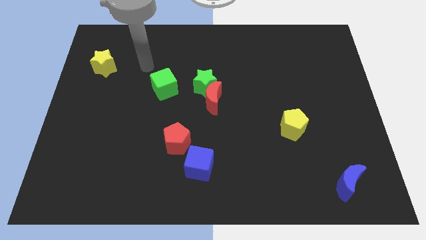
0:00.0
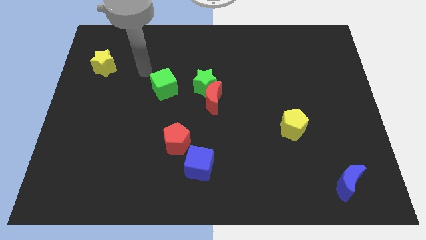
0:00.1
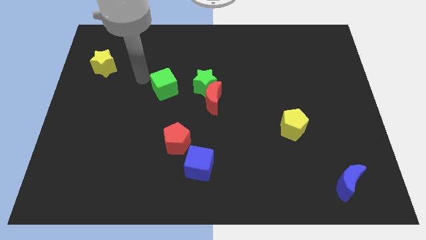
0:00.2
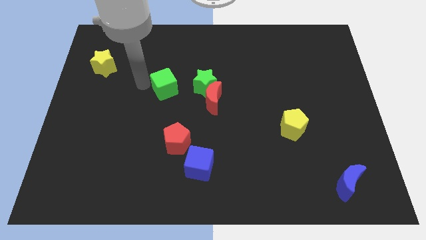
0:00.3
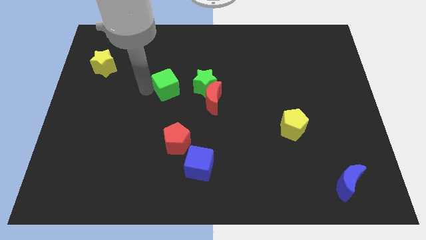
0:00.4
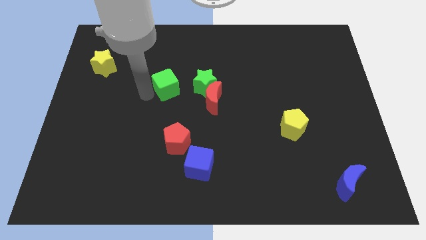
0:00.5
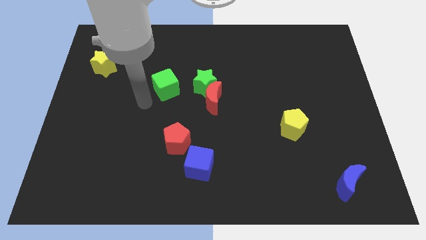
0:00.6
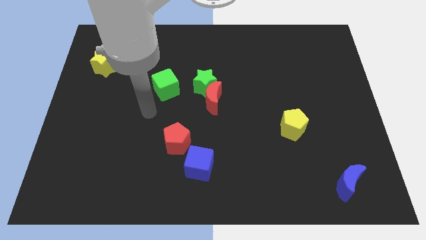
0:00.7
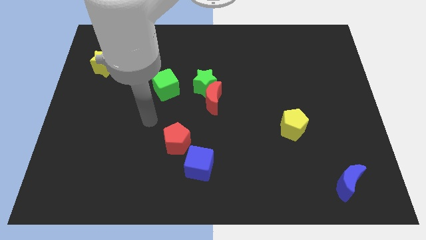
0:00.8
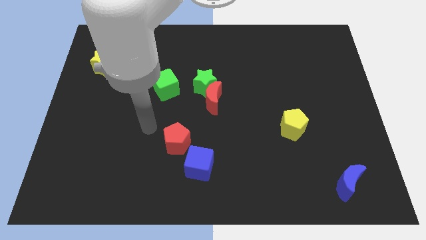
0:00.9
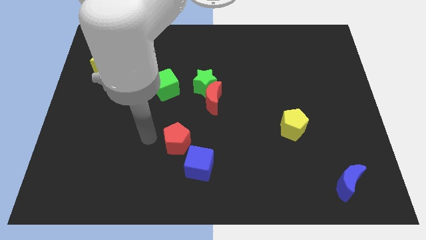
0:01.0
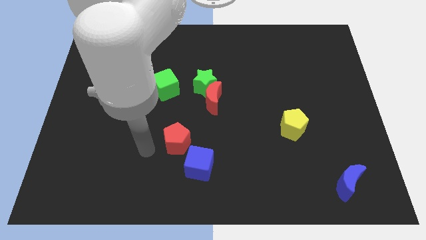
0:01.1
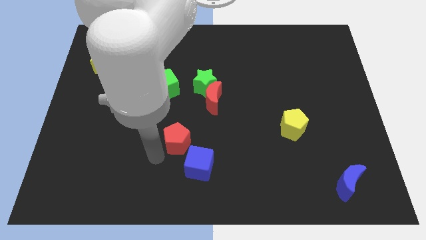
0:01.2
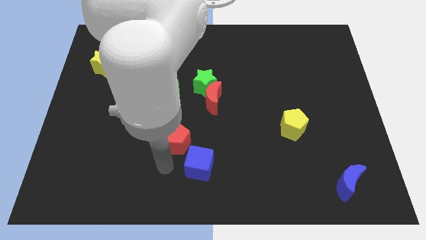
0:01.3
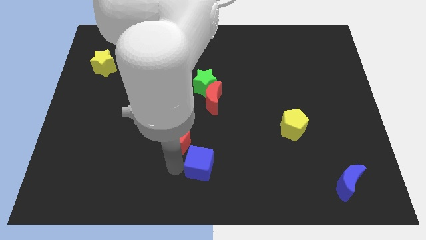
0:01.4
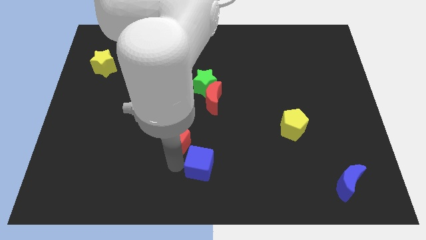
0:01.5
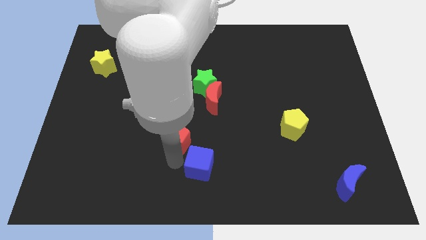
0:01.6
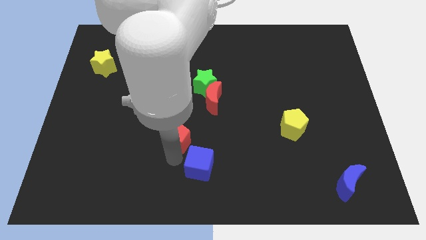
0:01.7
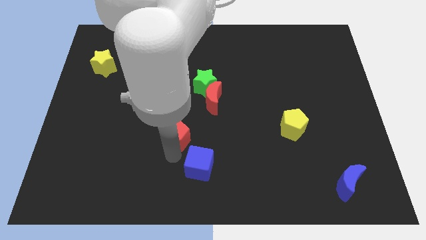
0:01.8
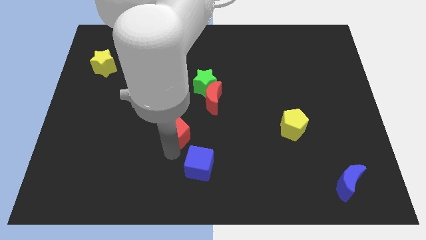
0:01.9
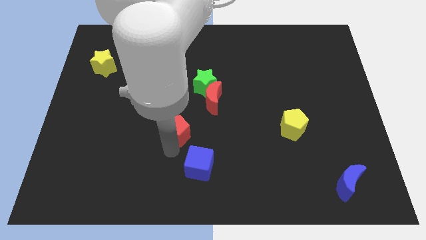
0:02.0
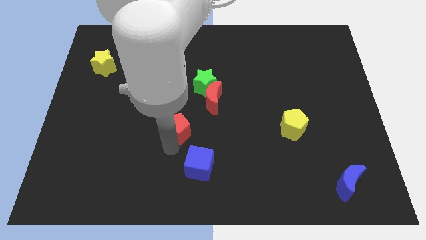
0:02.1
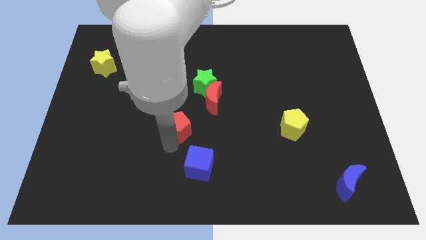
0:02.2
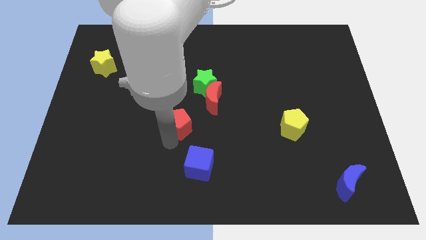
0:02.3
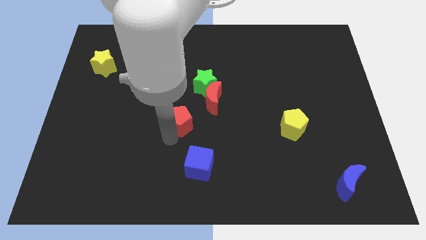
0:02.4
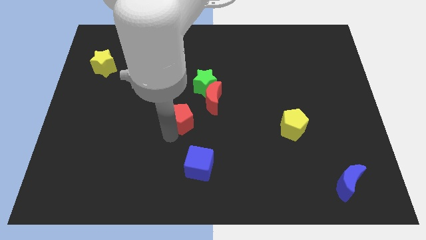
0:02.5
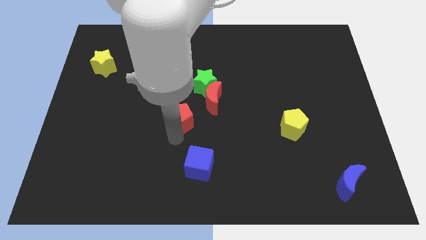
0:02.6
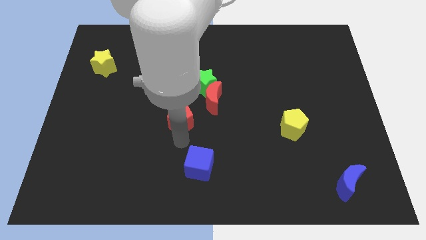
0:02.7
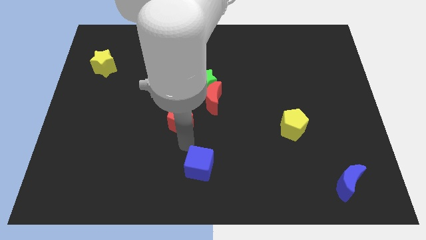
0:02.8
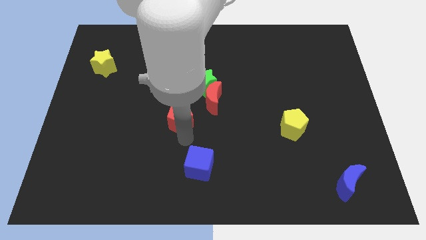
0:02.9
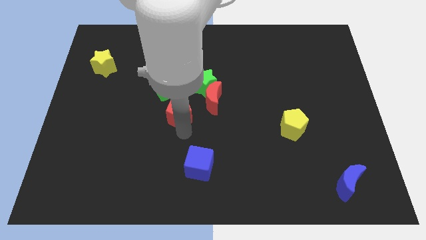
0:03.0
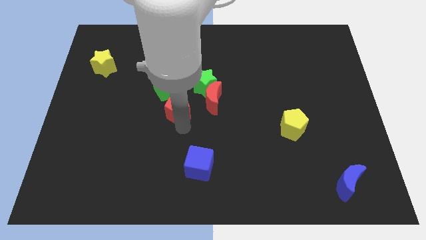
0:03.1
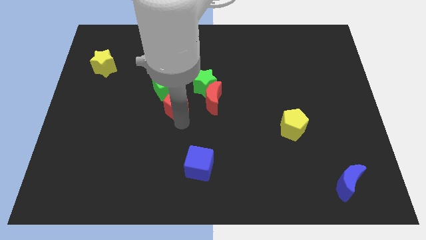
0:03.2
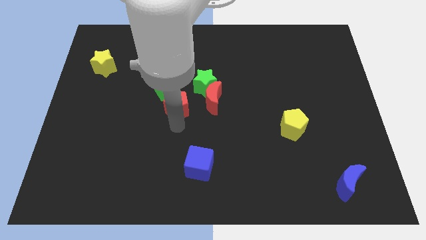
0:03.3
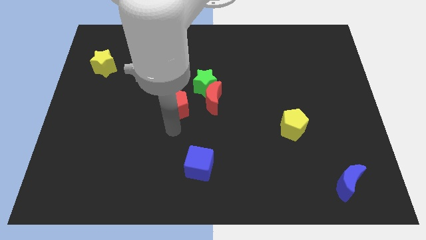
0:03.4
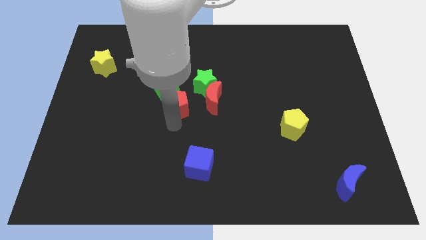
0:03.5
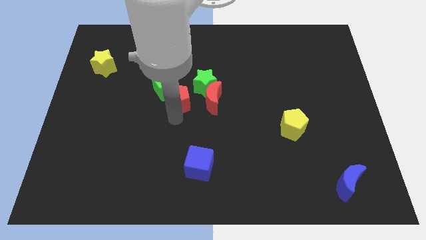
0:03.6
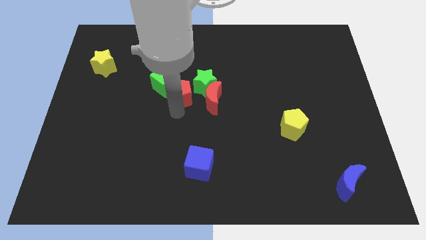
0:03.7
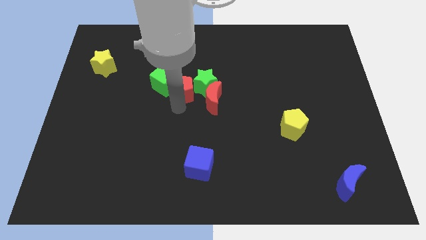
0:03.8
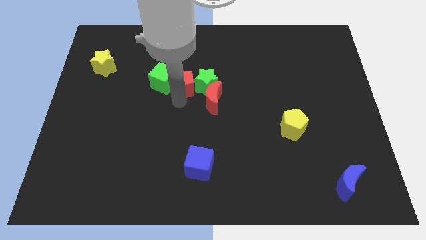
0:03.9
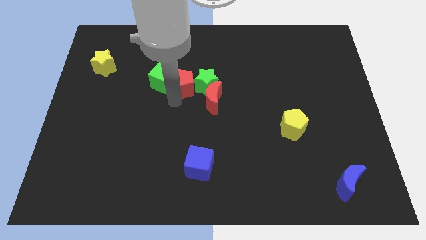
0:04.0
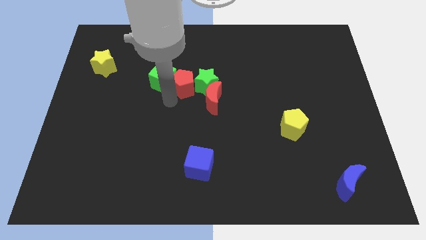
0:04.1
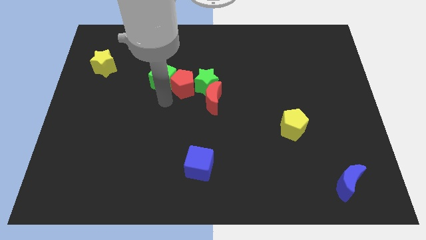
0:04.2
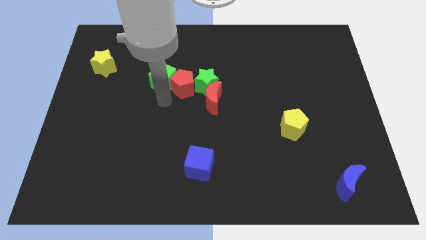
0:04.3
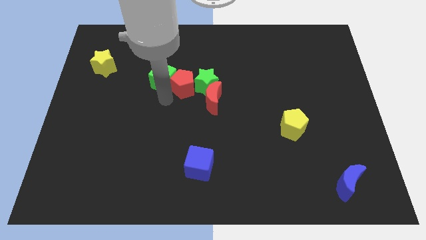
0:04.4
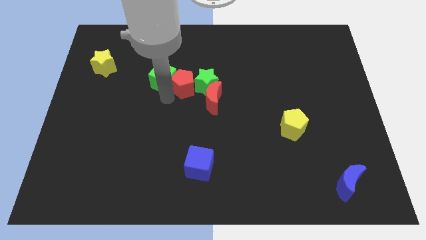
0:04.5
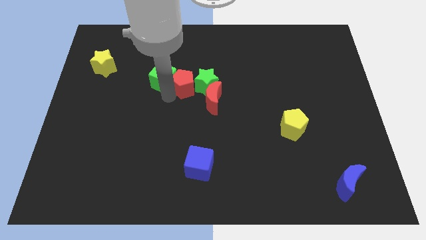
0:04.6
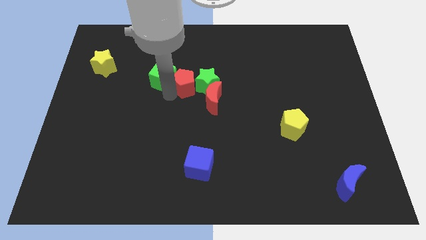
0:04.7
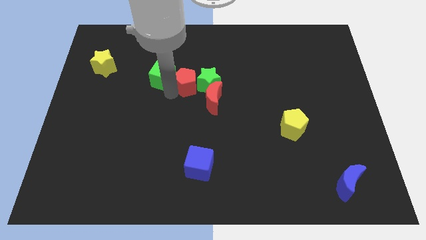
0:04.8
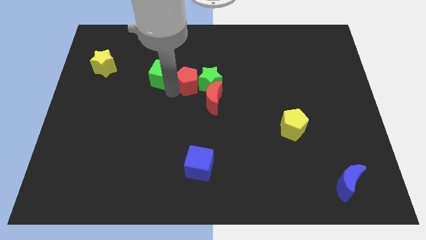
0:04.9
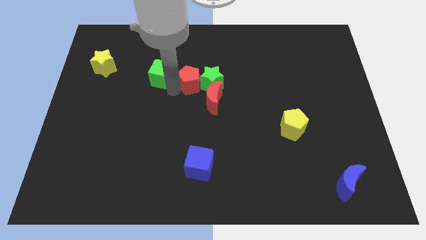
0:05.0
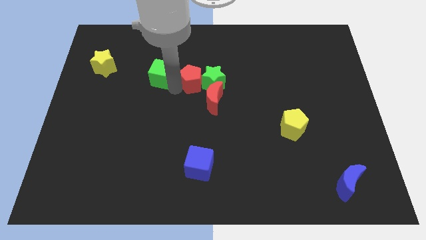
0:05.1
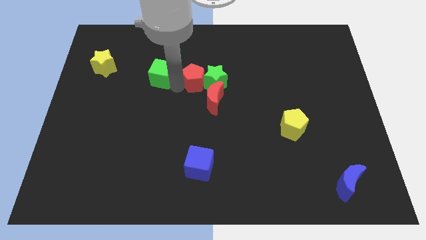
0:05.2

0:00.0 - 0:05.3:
slide the red pentagon to the top of the red moon

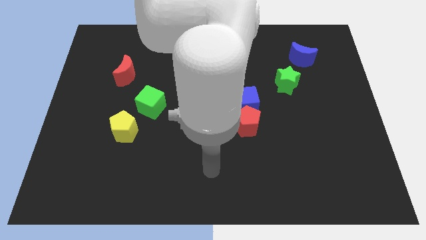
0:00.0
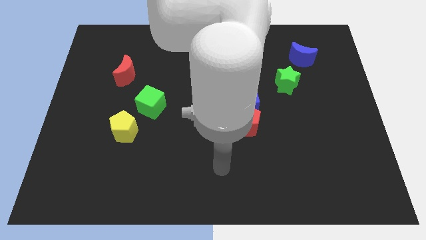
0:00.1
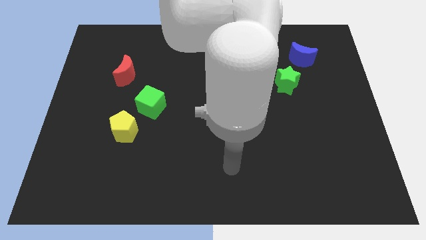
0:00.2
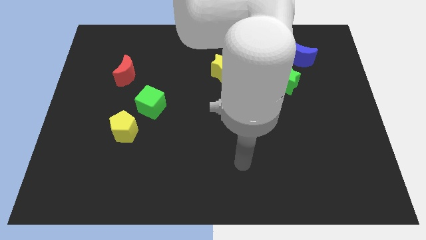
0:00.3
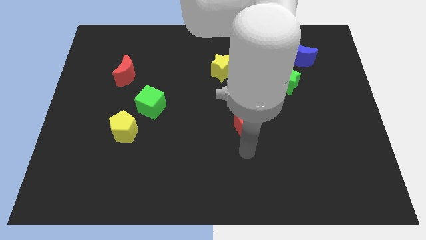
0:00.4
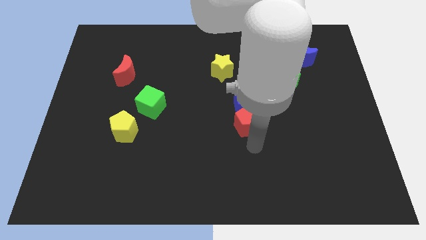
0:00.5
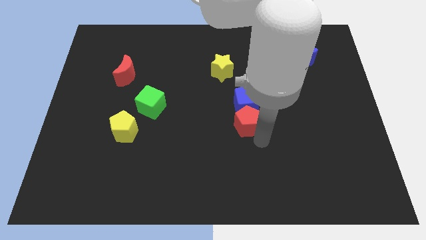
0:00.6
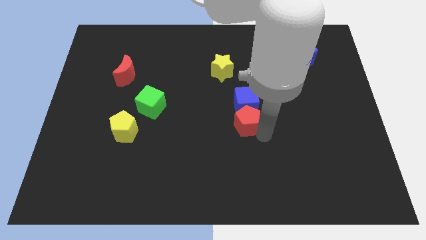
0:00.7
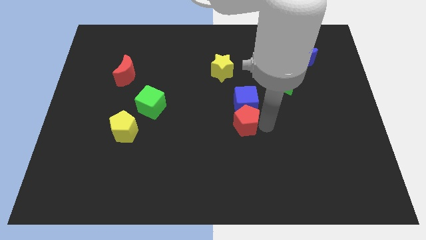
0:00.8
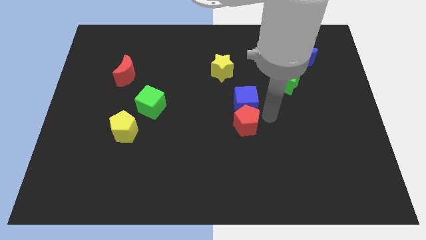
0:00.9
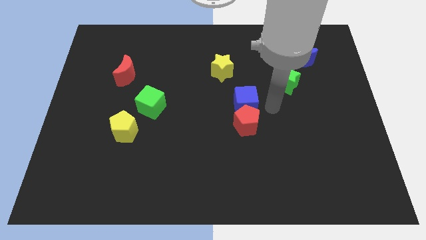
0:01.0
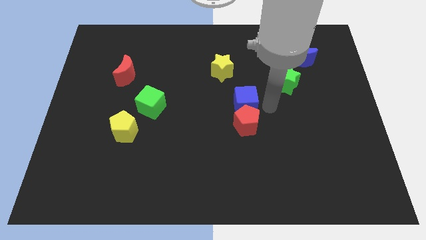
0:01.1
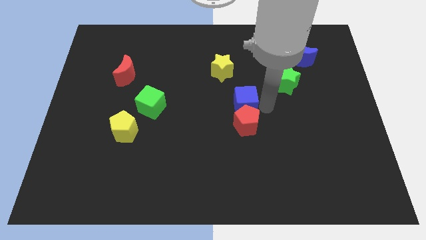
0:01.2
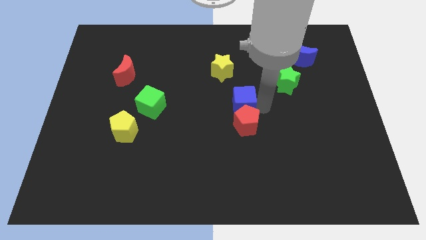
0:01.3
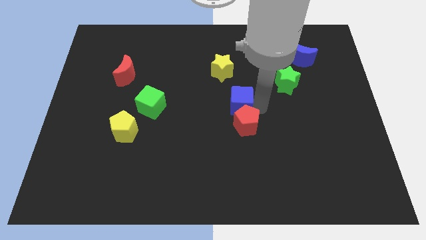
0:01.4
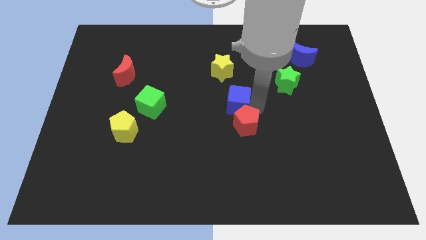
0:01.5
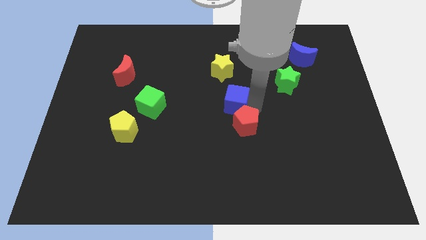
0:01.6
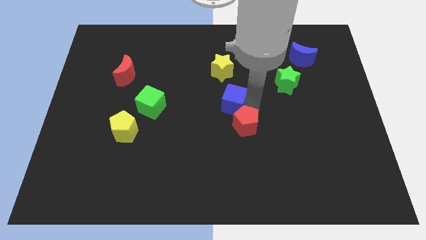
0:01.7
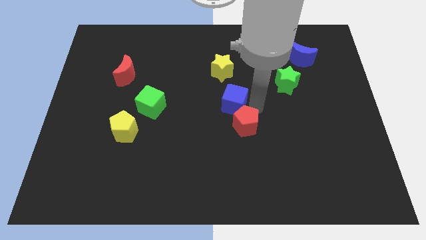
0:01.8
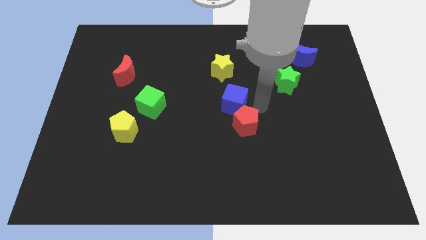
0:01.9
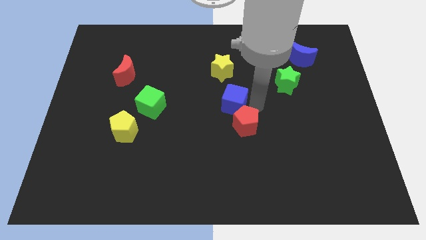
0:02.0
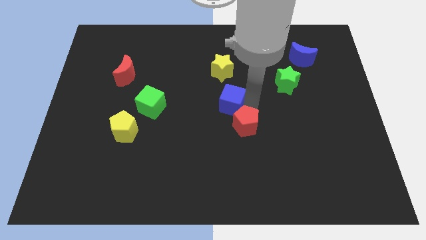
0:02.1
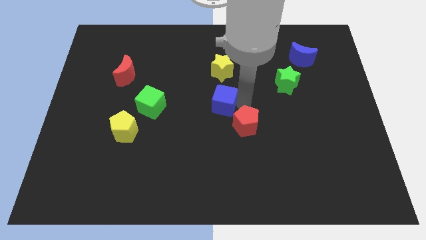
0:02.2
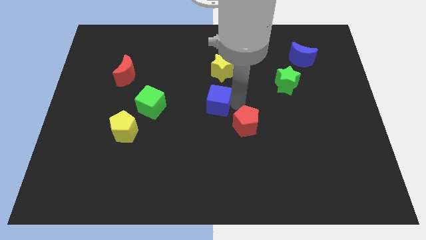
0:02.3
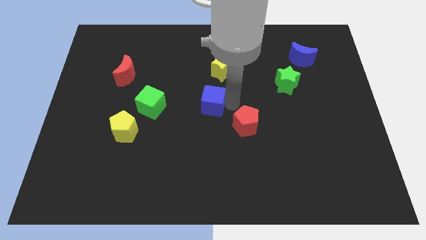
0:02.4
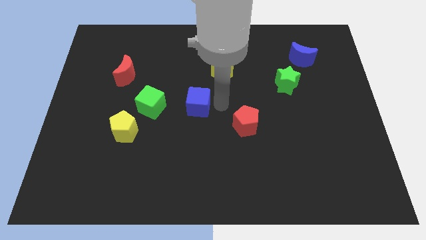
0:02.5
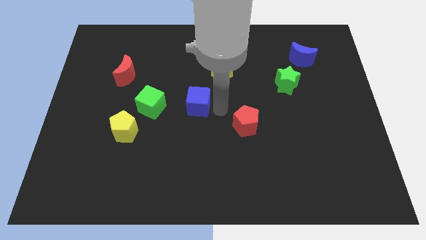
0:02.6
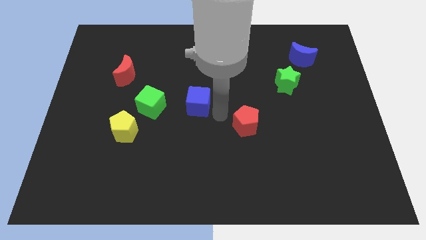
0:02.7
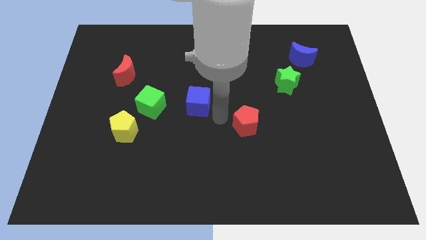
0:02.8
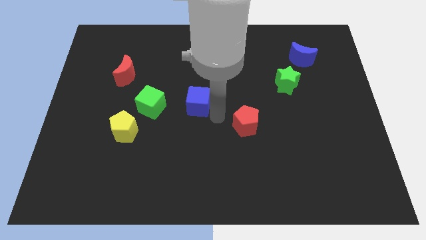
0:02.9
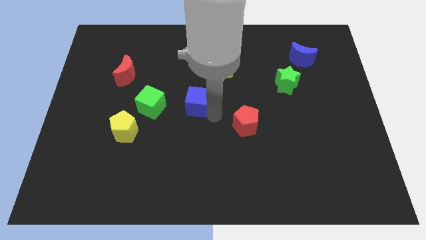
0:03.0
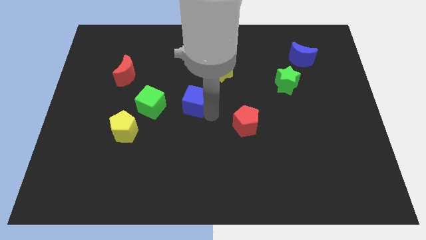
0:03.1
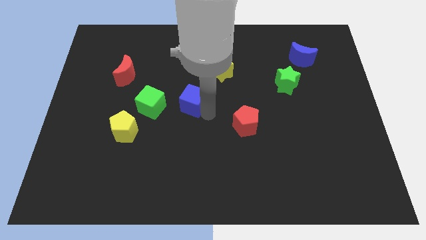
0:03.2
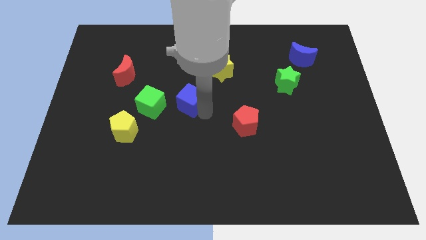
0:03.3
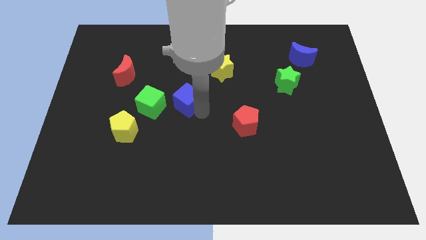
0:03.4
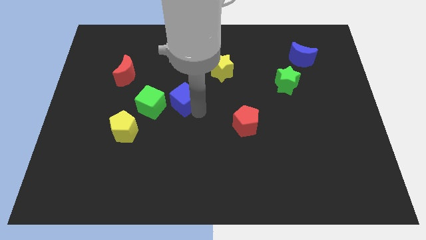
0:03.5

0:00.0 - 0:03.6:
slide the blue cube to the top right of the green cube
